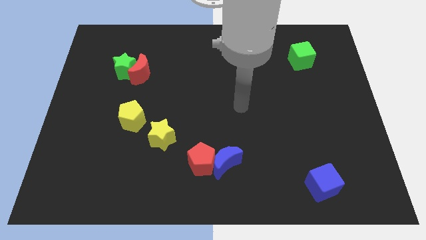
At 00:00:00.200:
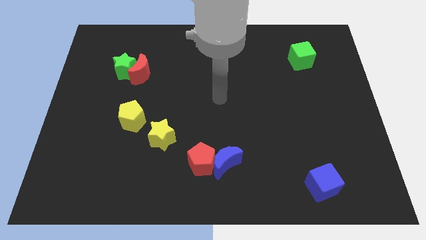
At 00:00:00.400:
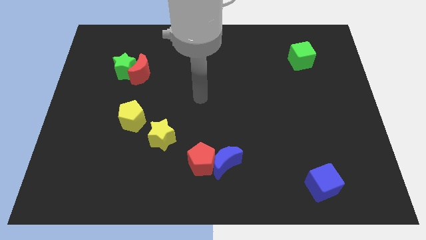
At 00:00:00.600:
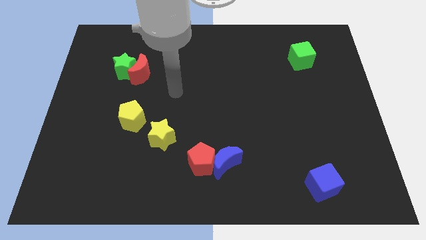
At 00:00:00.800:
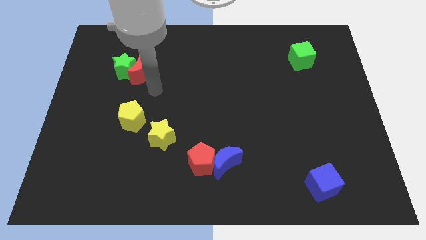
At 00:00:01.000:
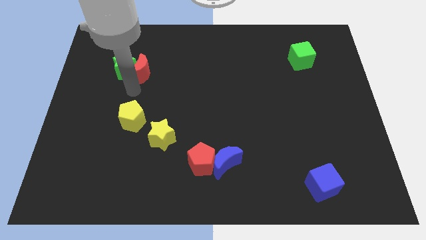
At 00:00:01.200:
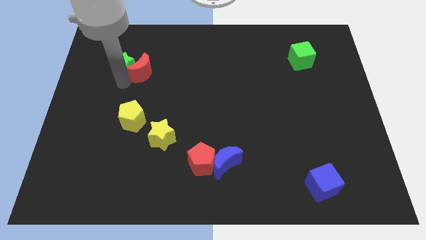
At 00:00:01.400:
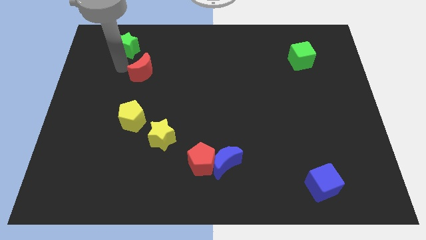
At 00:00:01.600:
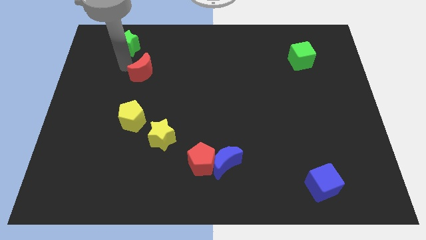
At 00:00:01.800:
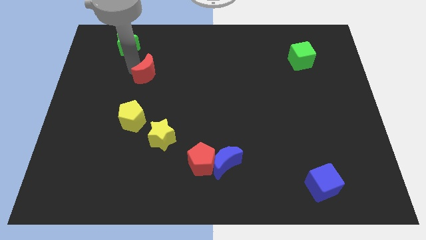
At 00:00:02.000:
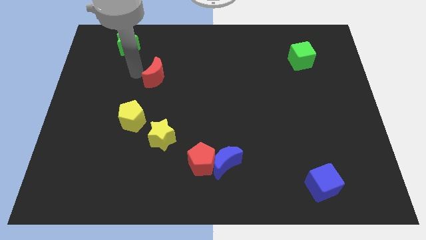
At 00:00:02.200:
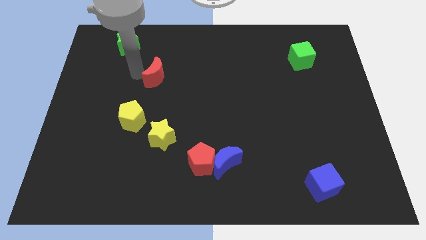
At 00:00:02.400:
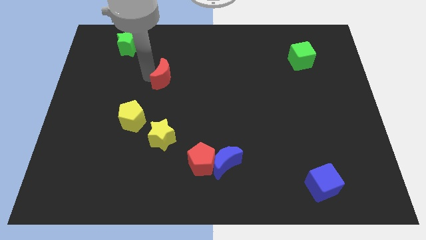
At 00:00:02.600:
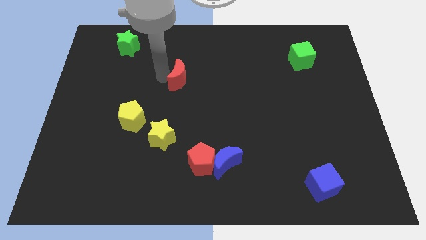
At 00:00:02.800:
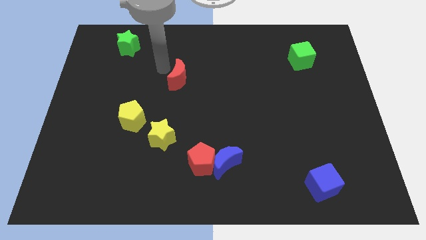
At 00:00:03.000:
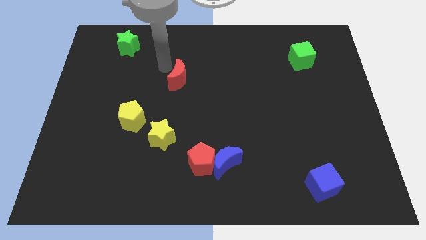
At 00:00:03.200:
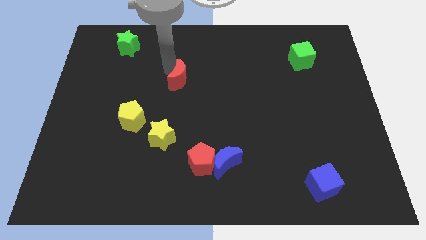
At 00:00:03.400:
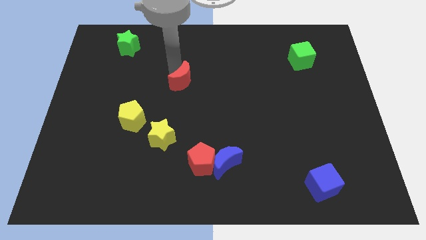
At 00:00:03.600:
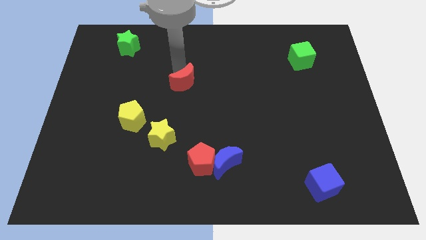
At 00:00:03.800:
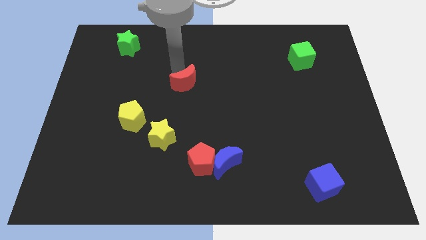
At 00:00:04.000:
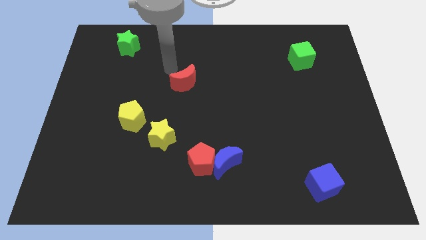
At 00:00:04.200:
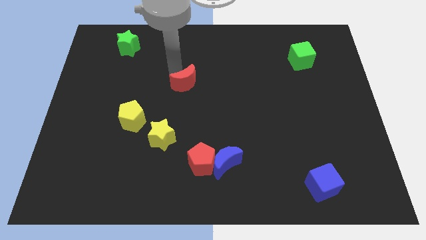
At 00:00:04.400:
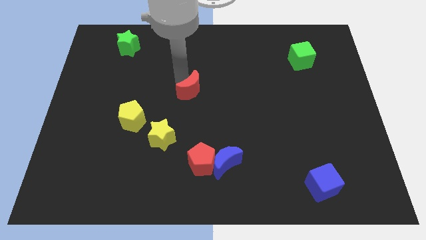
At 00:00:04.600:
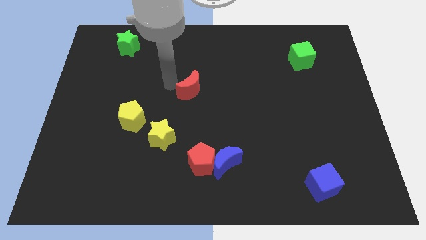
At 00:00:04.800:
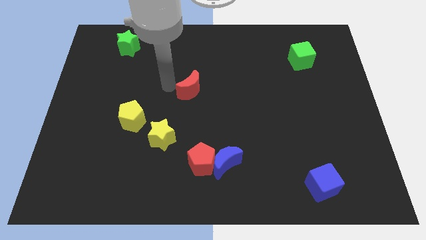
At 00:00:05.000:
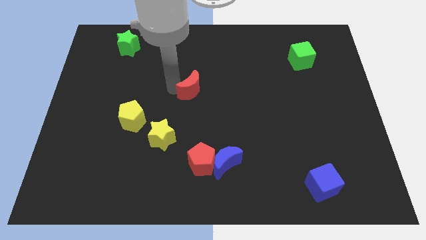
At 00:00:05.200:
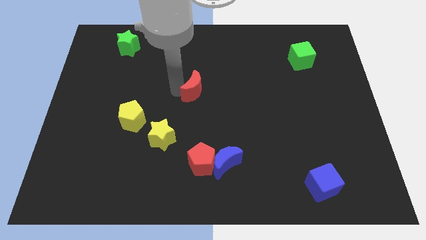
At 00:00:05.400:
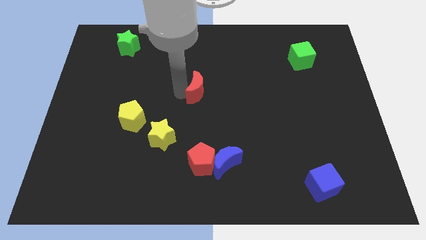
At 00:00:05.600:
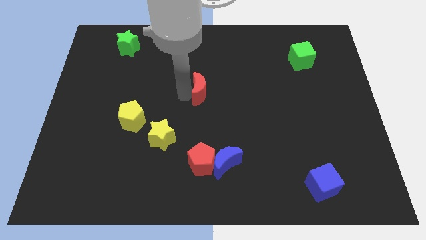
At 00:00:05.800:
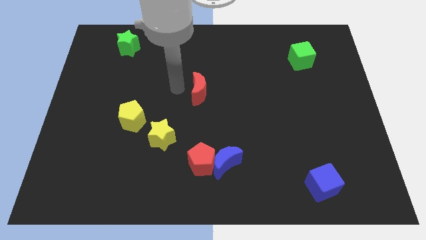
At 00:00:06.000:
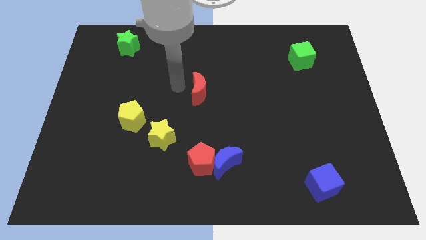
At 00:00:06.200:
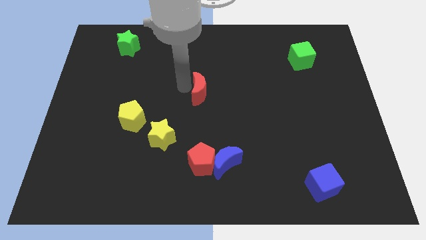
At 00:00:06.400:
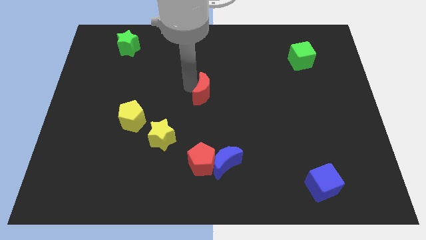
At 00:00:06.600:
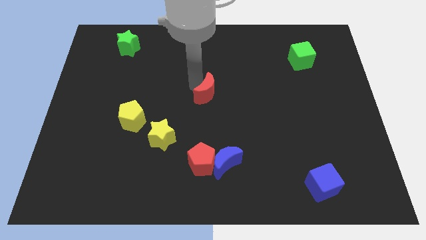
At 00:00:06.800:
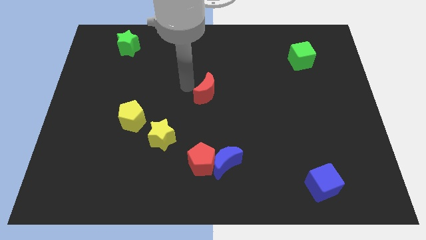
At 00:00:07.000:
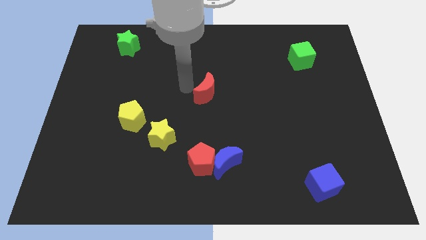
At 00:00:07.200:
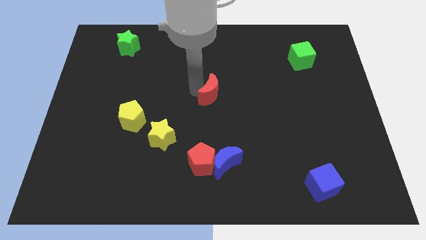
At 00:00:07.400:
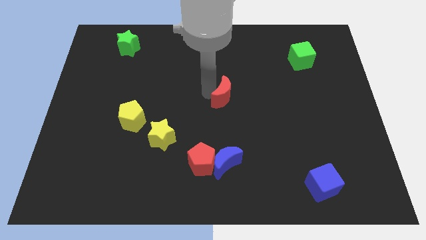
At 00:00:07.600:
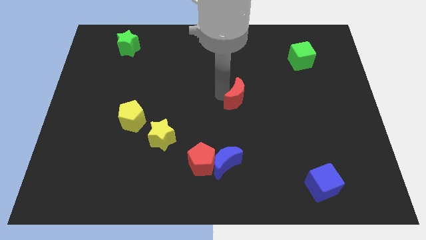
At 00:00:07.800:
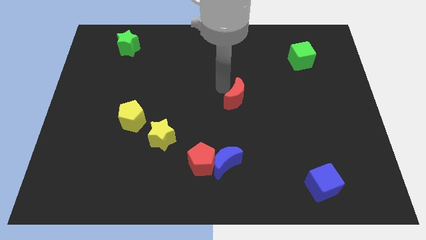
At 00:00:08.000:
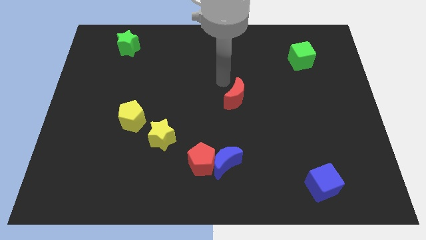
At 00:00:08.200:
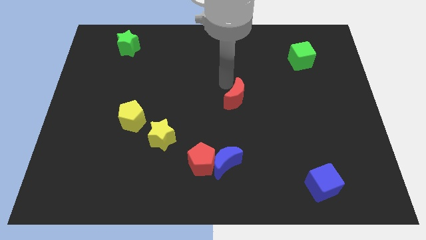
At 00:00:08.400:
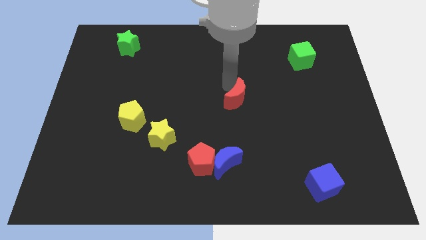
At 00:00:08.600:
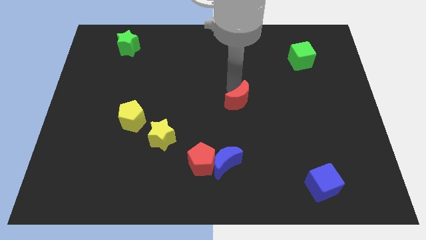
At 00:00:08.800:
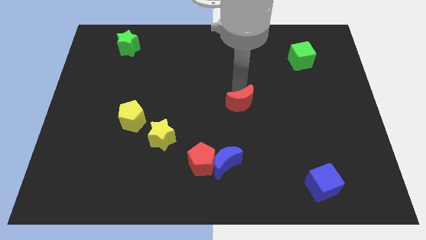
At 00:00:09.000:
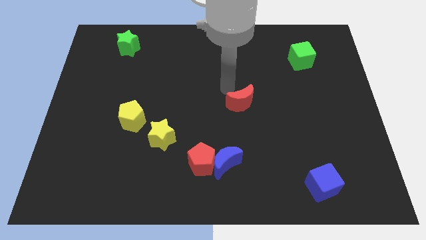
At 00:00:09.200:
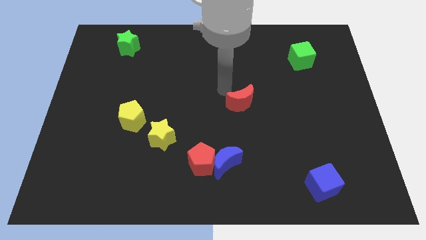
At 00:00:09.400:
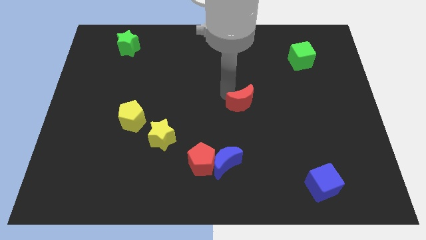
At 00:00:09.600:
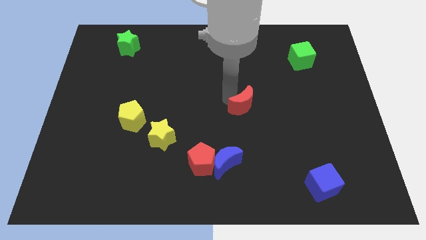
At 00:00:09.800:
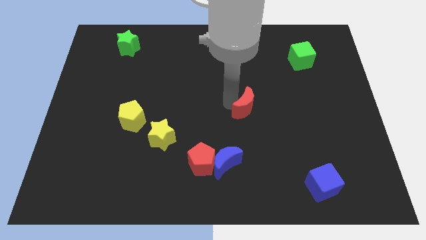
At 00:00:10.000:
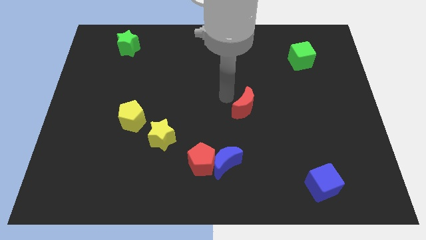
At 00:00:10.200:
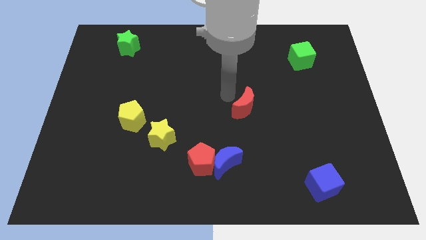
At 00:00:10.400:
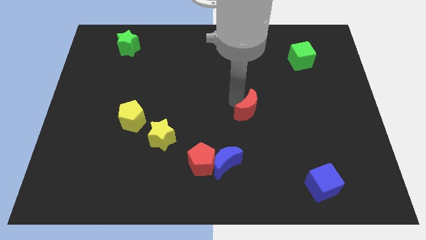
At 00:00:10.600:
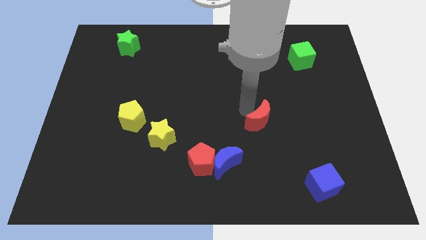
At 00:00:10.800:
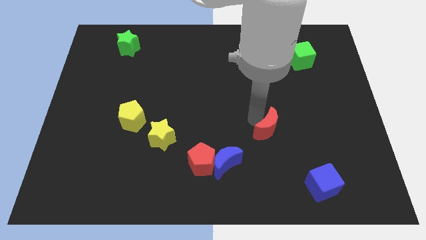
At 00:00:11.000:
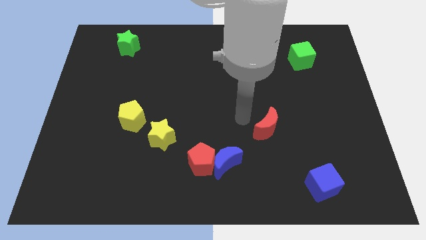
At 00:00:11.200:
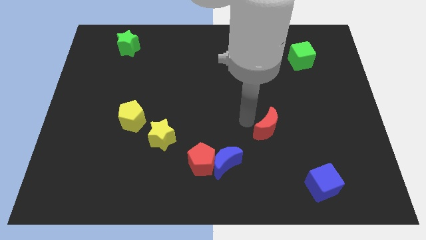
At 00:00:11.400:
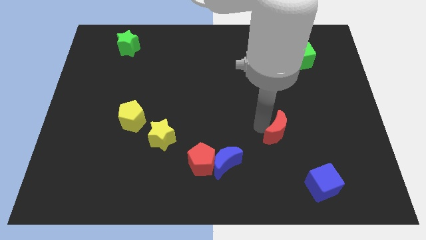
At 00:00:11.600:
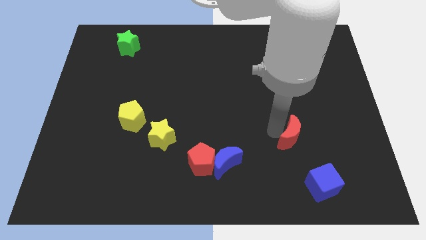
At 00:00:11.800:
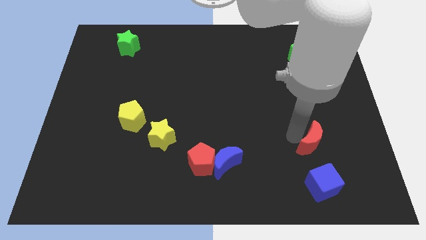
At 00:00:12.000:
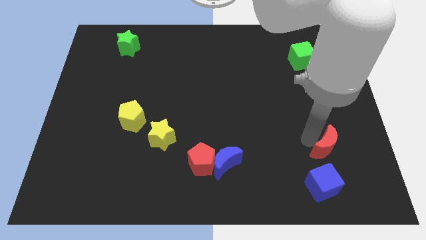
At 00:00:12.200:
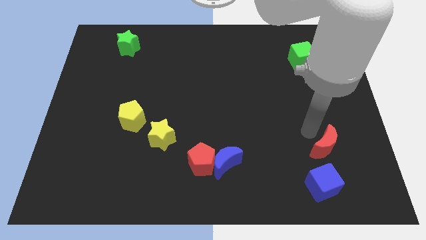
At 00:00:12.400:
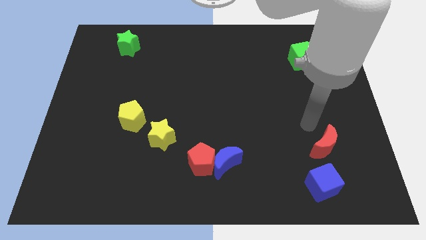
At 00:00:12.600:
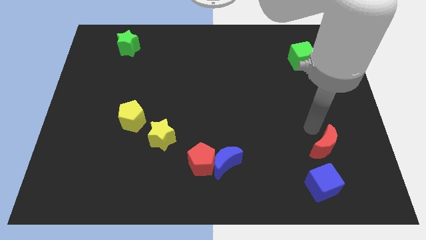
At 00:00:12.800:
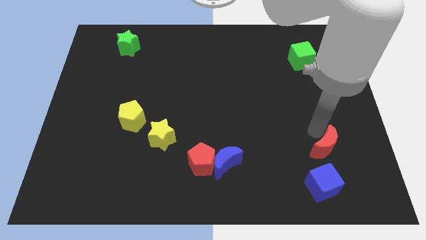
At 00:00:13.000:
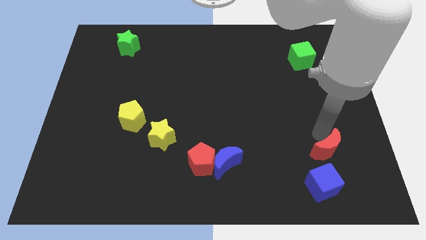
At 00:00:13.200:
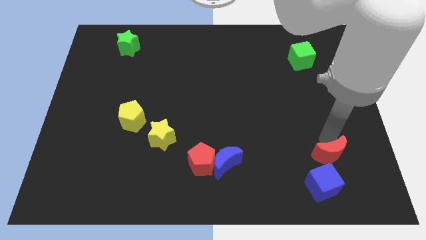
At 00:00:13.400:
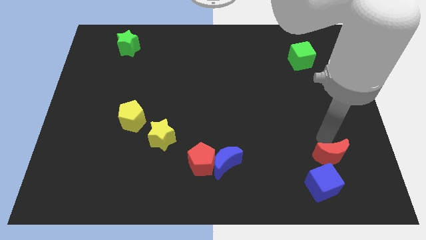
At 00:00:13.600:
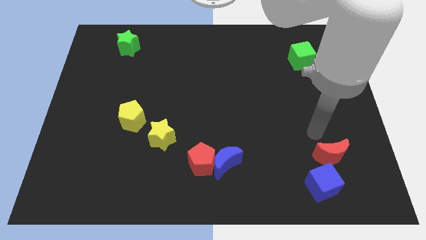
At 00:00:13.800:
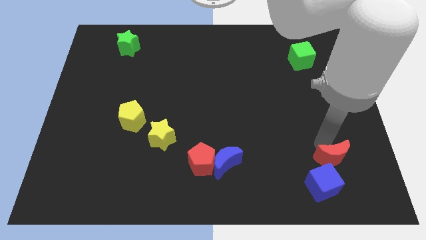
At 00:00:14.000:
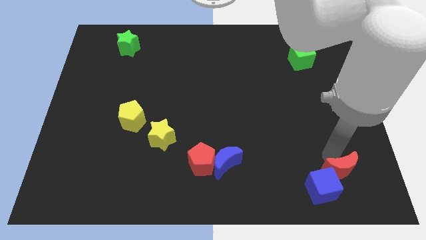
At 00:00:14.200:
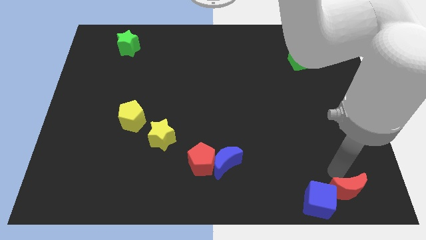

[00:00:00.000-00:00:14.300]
slide the red moon to the bottom right corner
